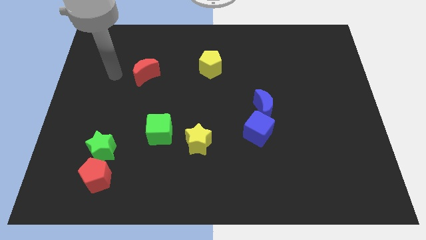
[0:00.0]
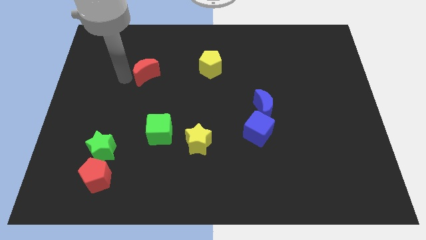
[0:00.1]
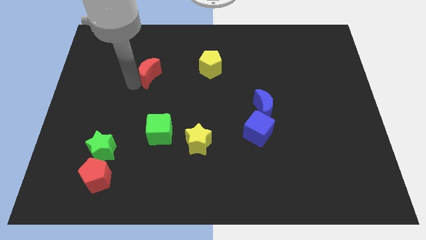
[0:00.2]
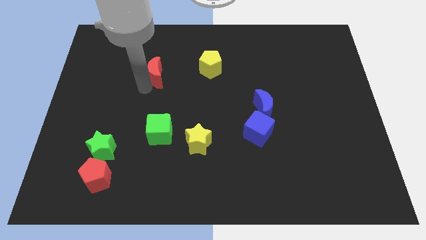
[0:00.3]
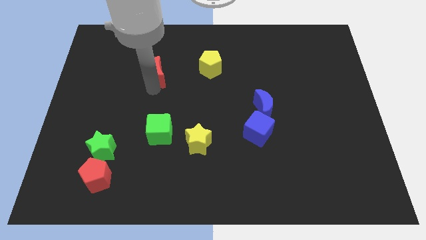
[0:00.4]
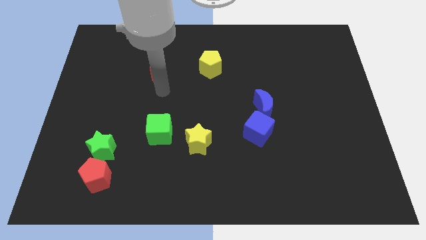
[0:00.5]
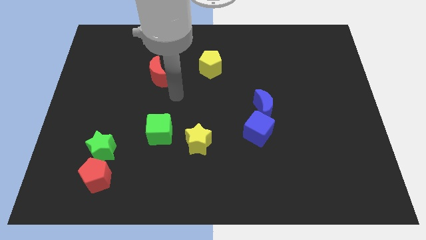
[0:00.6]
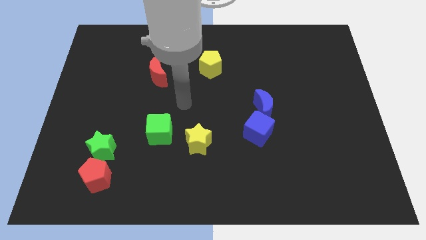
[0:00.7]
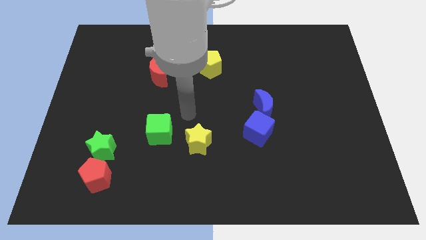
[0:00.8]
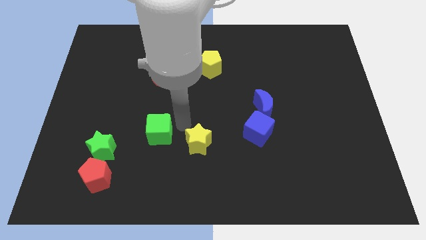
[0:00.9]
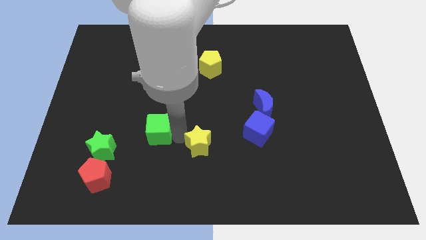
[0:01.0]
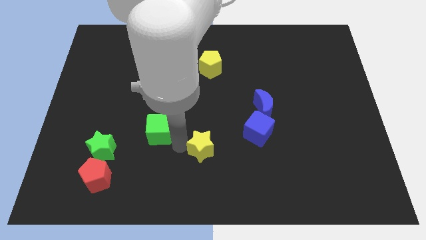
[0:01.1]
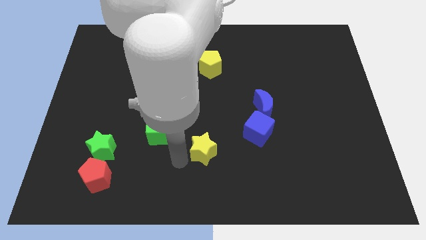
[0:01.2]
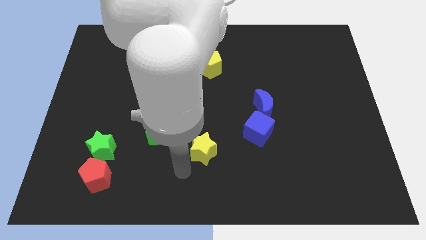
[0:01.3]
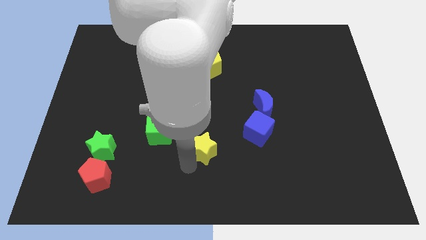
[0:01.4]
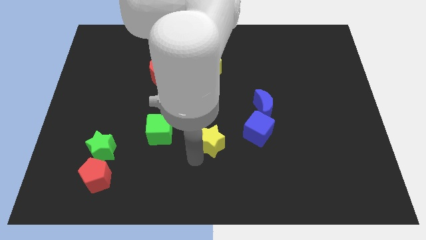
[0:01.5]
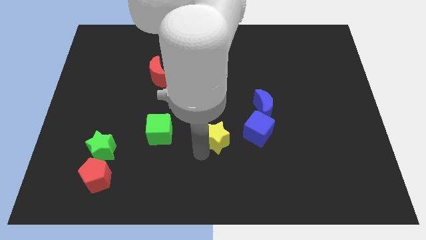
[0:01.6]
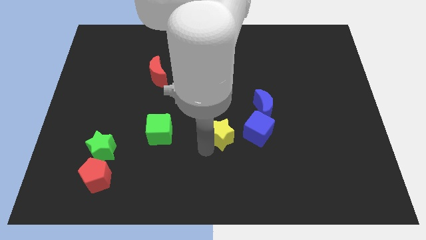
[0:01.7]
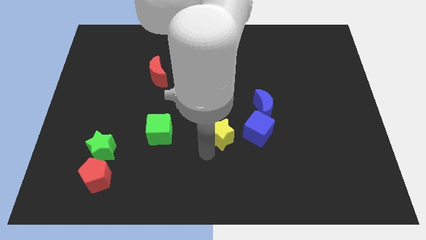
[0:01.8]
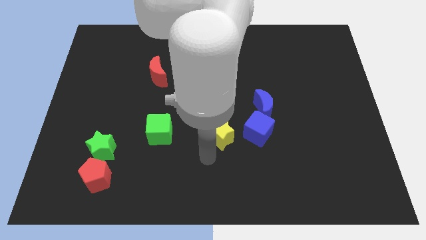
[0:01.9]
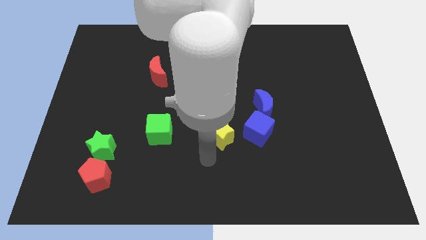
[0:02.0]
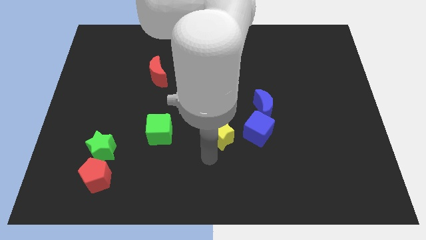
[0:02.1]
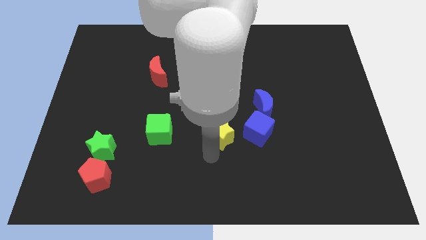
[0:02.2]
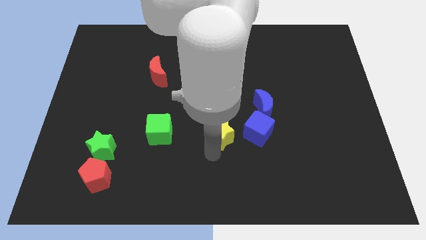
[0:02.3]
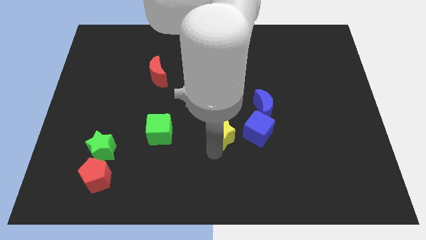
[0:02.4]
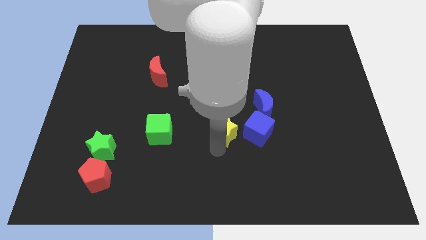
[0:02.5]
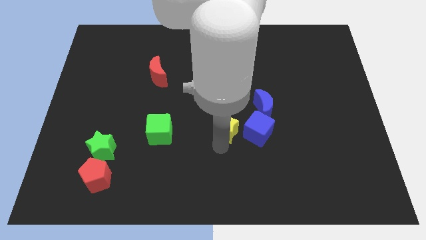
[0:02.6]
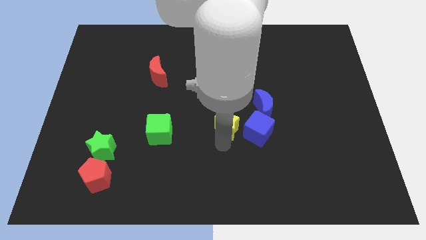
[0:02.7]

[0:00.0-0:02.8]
push the yellow star a little diagonally upwards and right

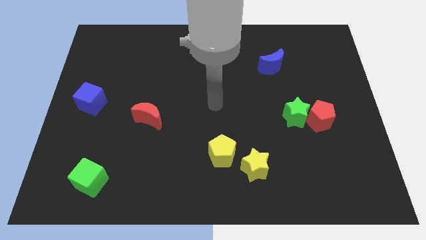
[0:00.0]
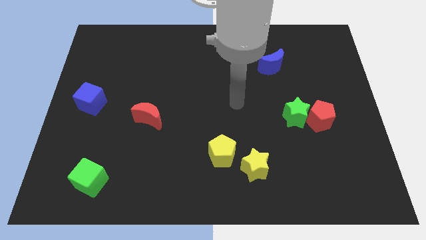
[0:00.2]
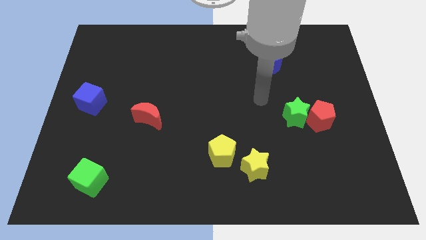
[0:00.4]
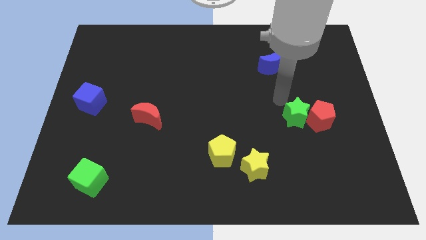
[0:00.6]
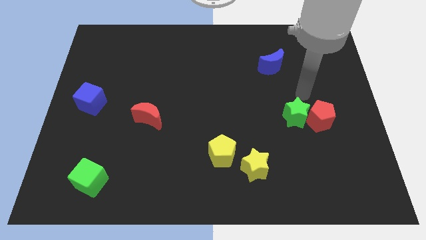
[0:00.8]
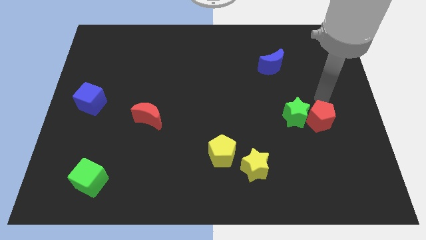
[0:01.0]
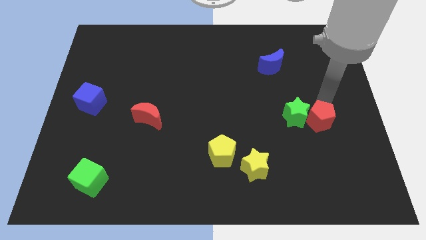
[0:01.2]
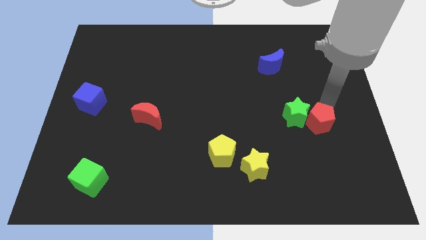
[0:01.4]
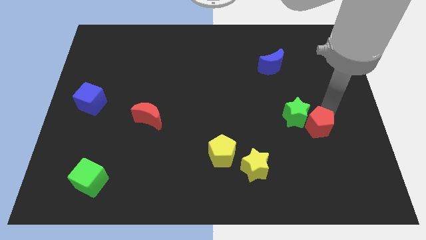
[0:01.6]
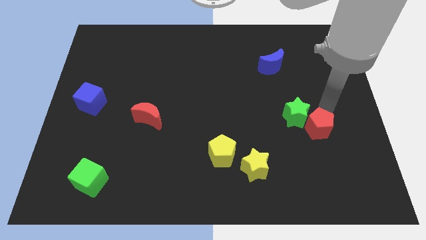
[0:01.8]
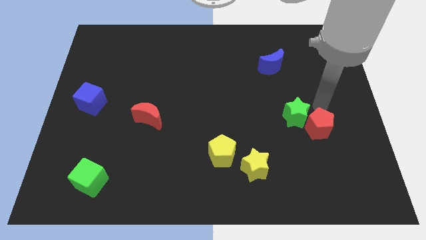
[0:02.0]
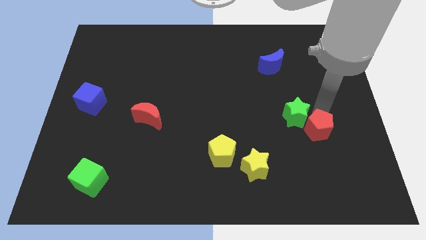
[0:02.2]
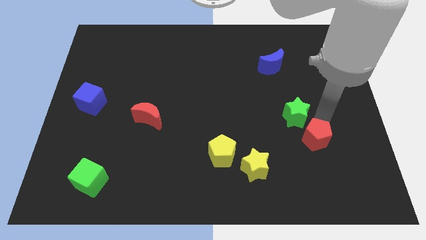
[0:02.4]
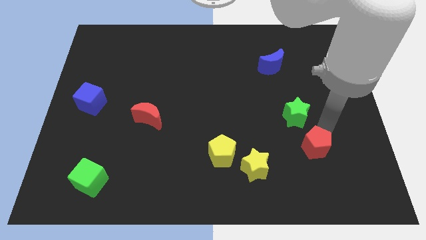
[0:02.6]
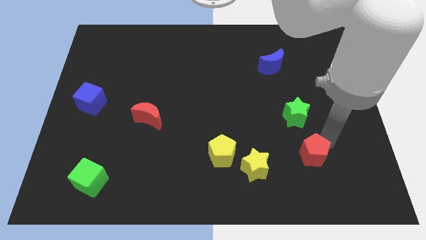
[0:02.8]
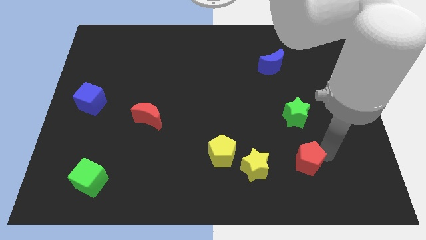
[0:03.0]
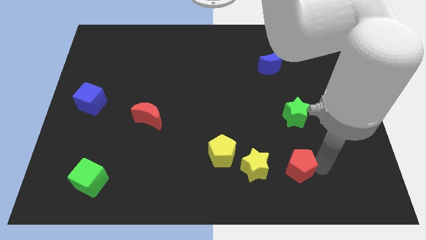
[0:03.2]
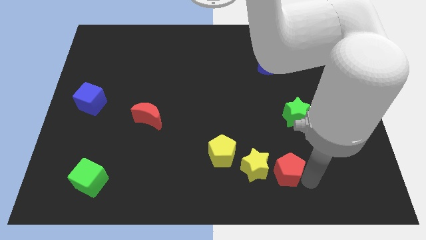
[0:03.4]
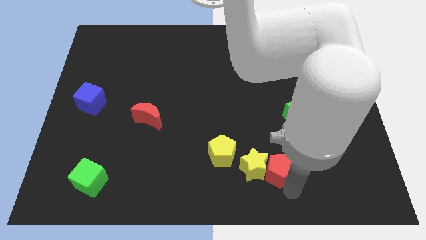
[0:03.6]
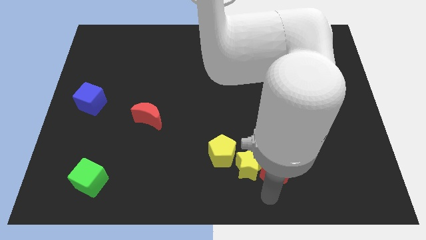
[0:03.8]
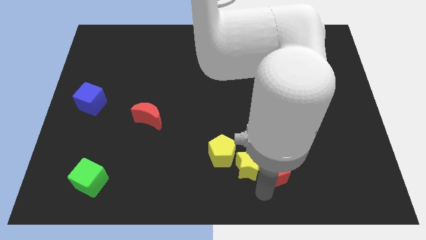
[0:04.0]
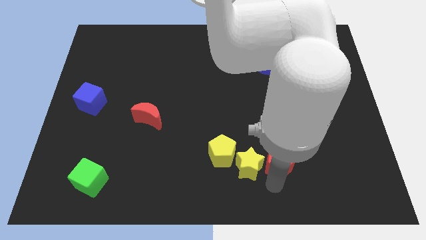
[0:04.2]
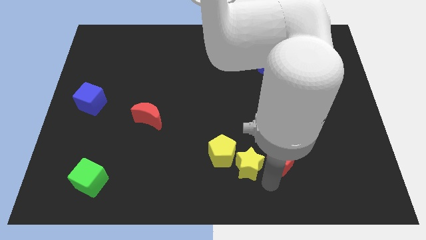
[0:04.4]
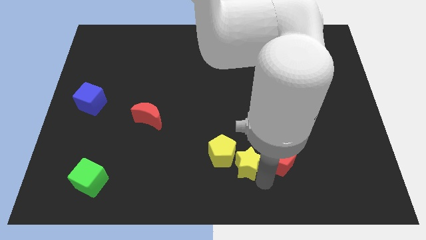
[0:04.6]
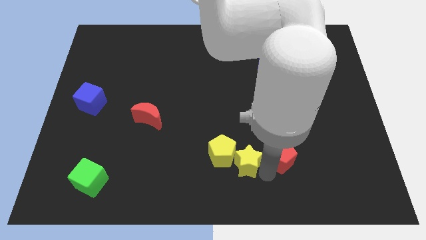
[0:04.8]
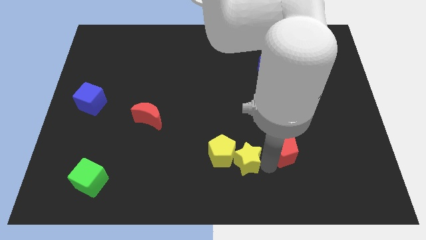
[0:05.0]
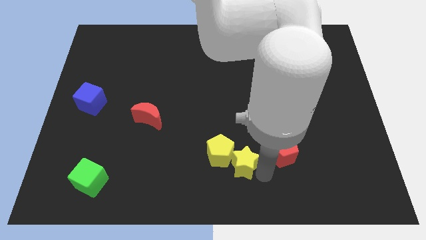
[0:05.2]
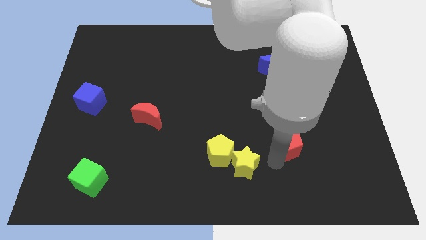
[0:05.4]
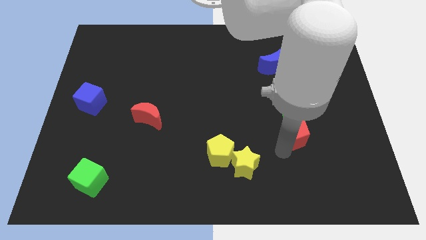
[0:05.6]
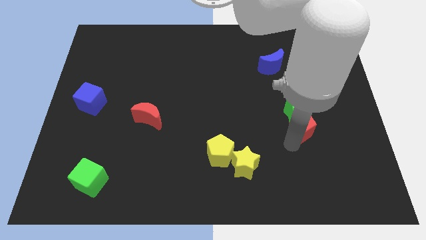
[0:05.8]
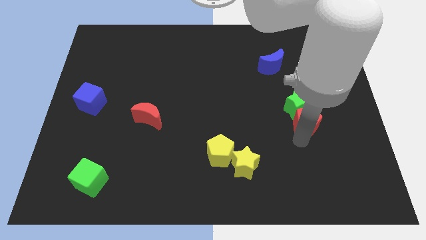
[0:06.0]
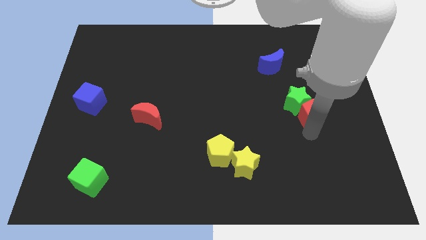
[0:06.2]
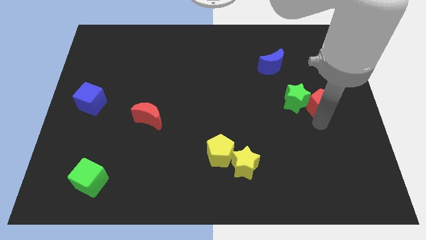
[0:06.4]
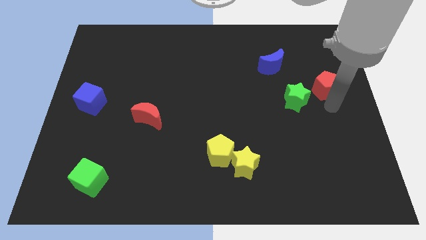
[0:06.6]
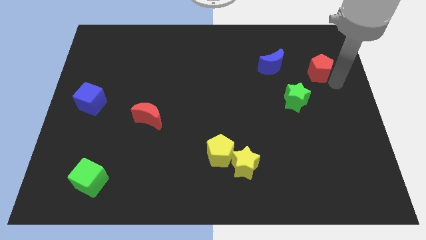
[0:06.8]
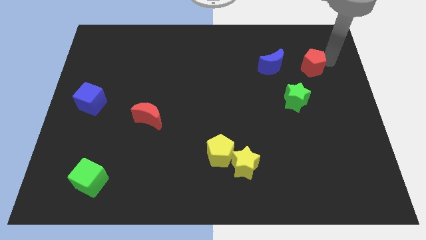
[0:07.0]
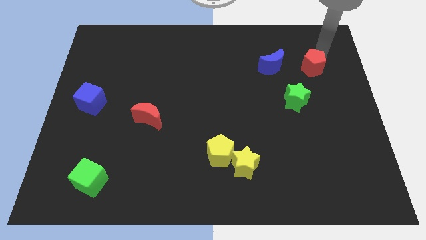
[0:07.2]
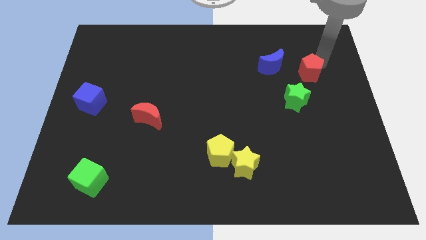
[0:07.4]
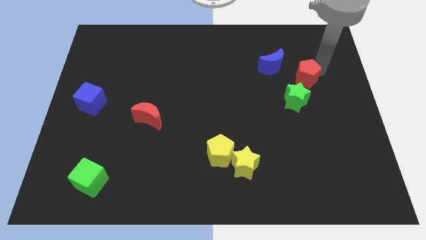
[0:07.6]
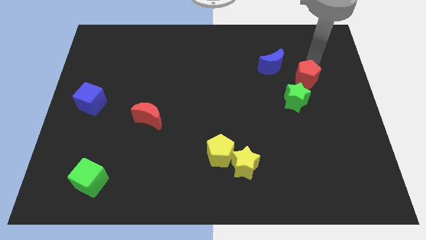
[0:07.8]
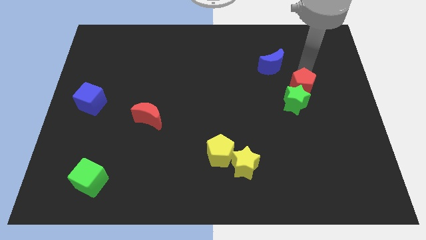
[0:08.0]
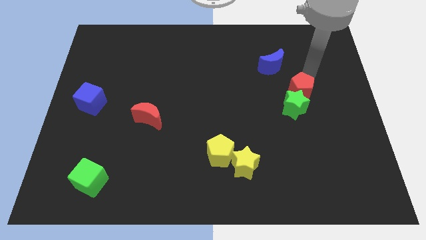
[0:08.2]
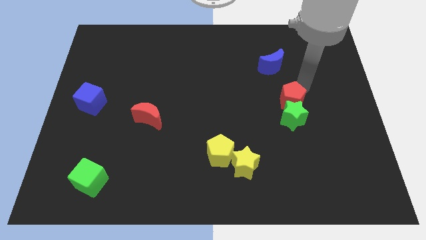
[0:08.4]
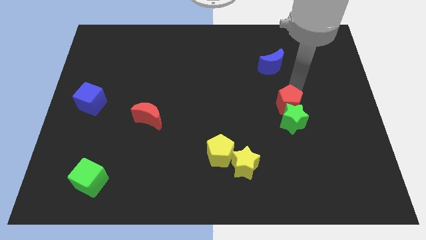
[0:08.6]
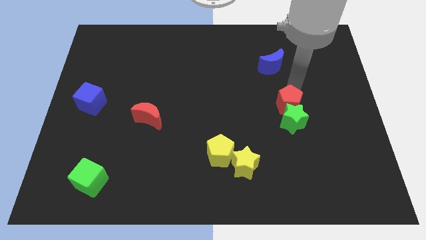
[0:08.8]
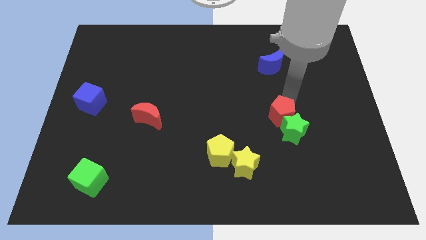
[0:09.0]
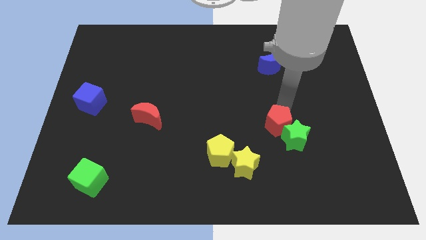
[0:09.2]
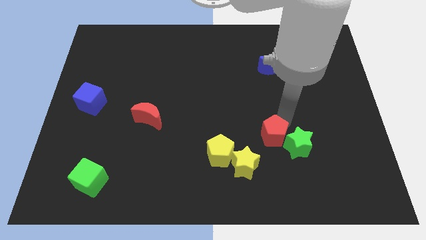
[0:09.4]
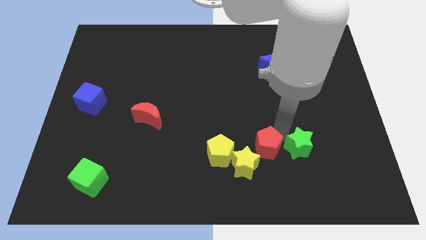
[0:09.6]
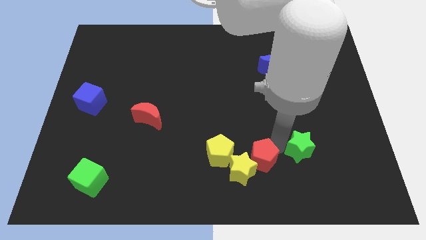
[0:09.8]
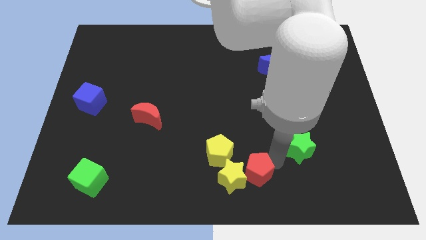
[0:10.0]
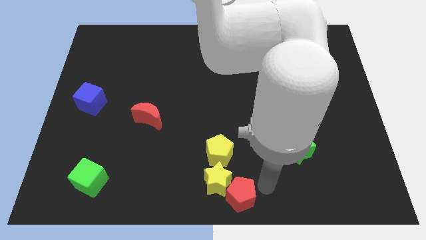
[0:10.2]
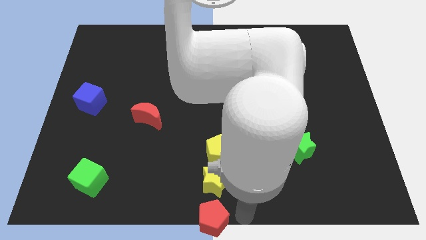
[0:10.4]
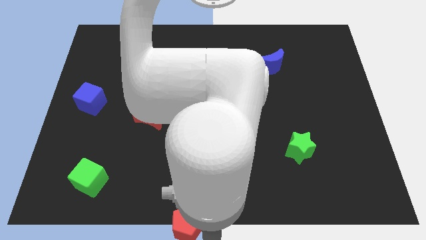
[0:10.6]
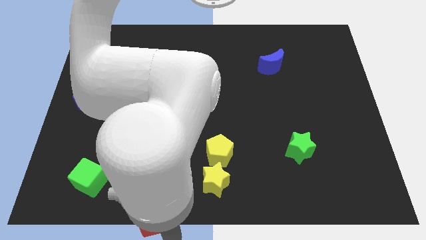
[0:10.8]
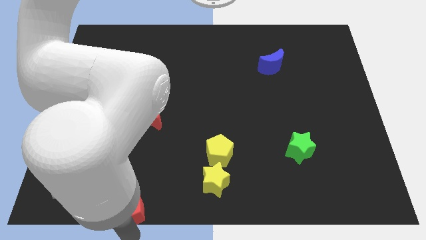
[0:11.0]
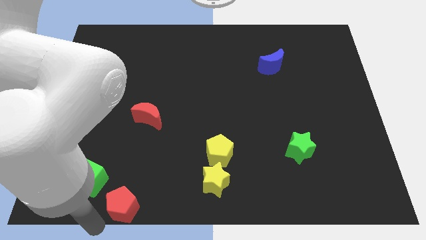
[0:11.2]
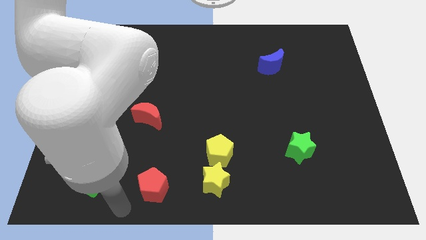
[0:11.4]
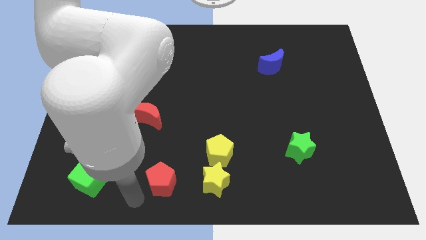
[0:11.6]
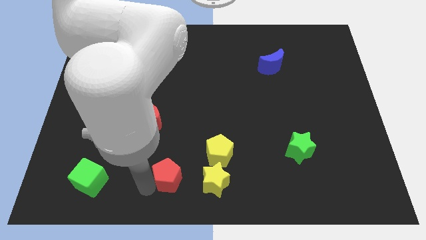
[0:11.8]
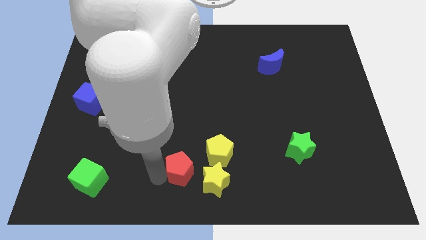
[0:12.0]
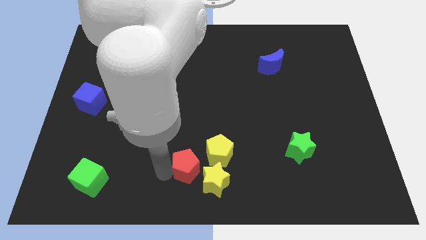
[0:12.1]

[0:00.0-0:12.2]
slide the red pentagon left
